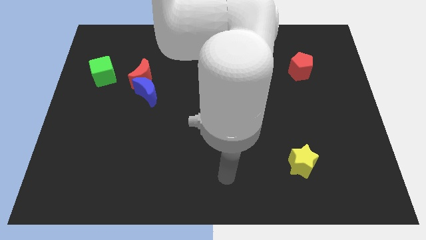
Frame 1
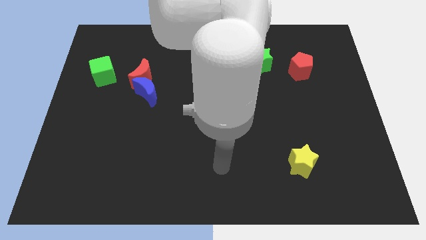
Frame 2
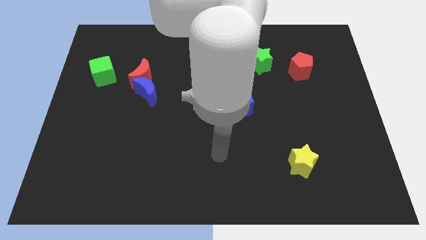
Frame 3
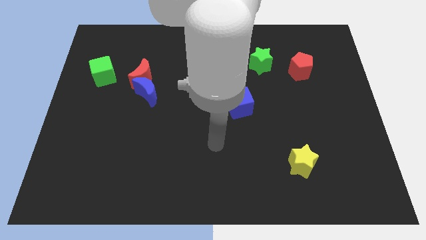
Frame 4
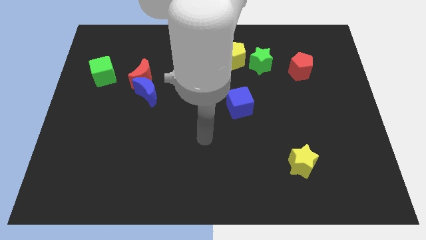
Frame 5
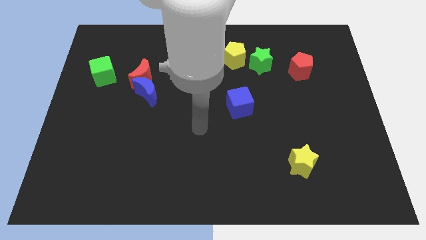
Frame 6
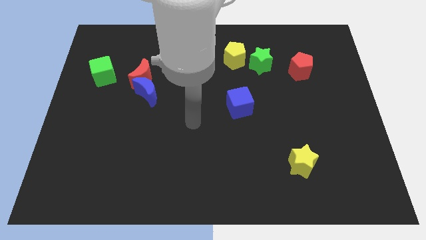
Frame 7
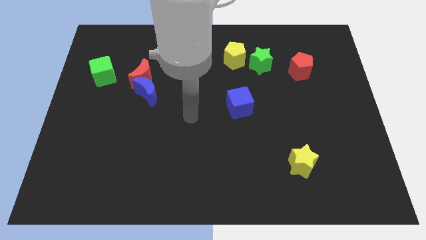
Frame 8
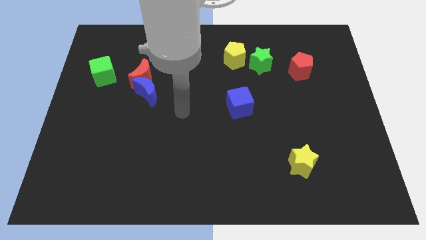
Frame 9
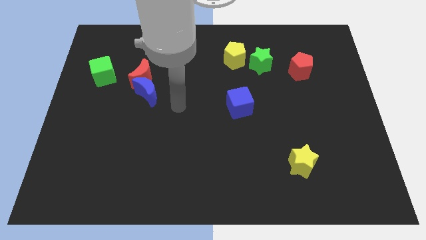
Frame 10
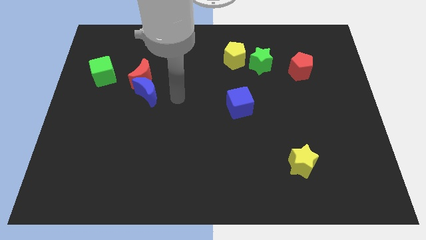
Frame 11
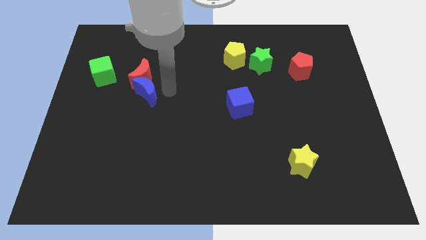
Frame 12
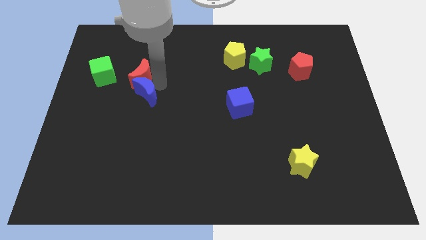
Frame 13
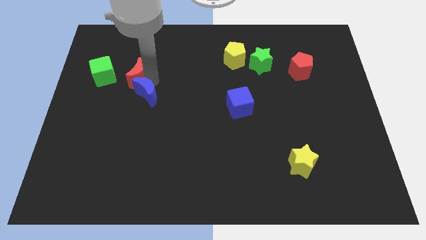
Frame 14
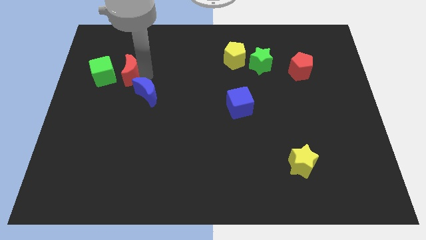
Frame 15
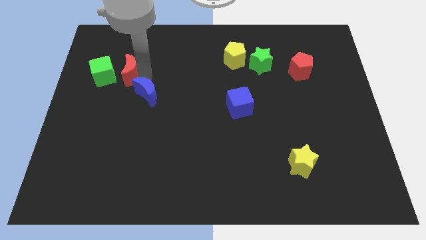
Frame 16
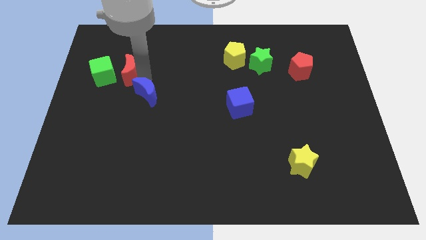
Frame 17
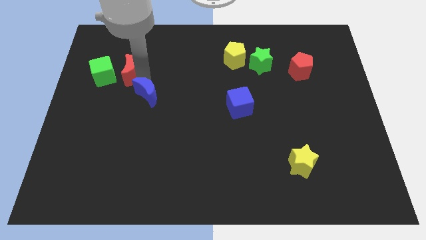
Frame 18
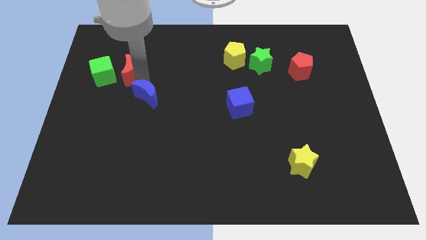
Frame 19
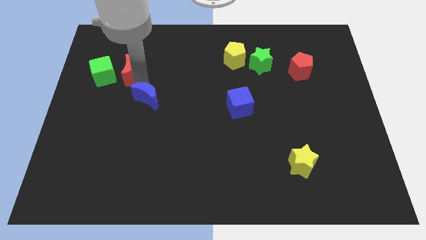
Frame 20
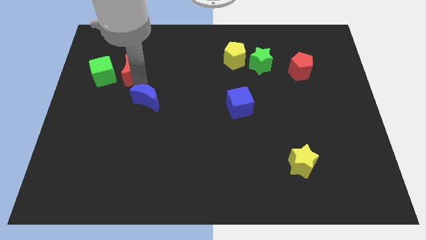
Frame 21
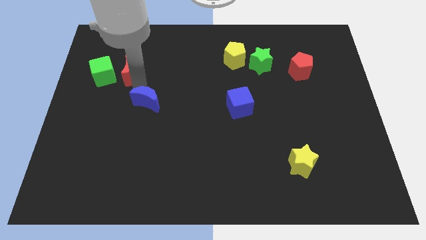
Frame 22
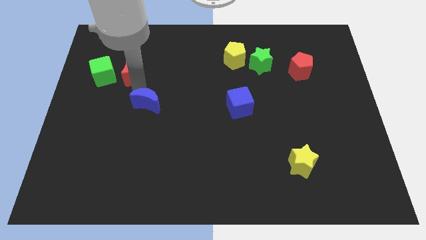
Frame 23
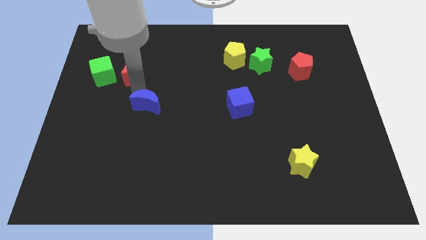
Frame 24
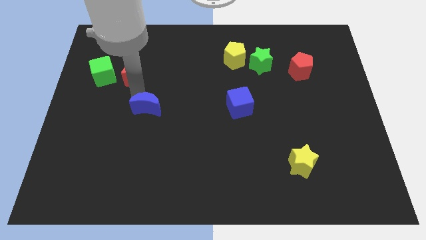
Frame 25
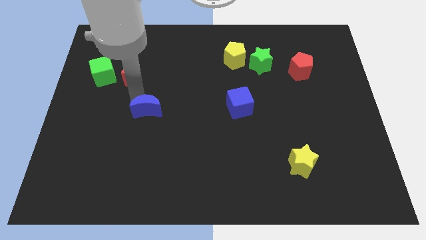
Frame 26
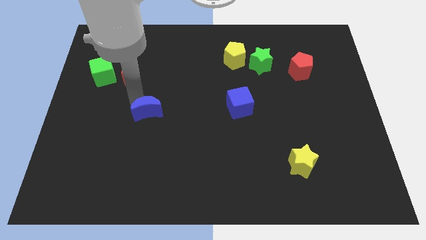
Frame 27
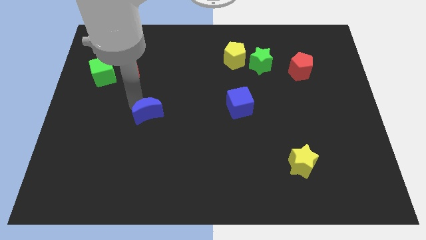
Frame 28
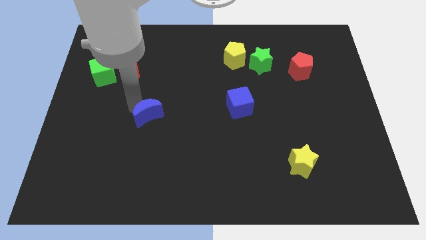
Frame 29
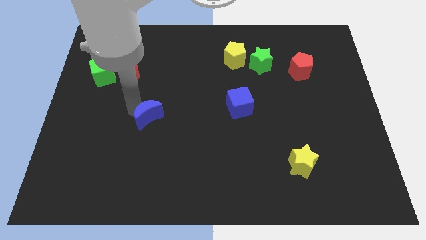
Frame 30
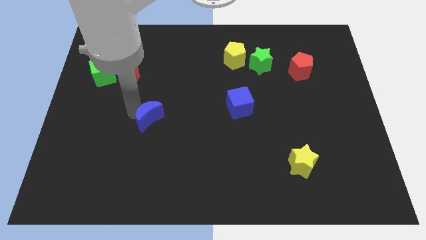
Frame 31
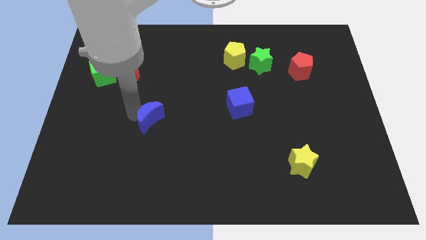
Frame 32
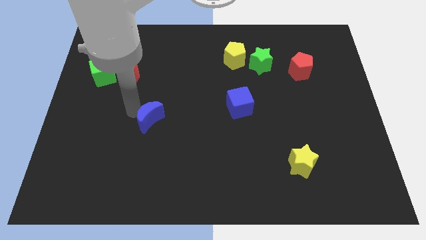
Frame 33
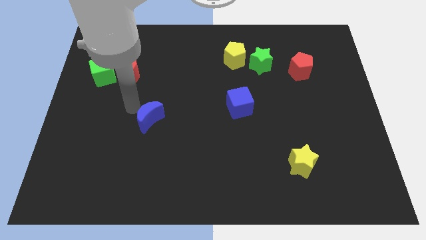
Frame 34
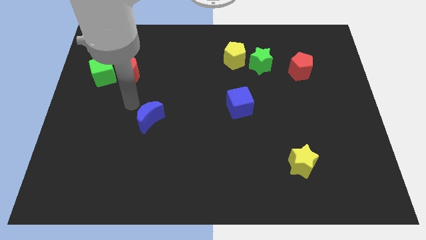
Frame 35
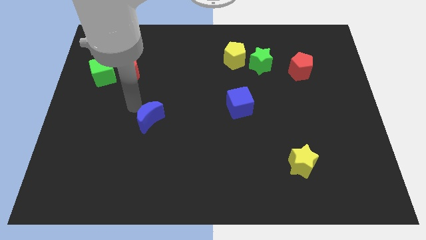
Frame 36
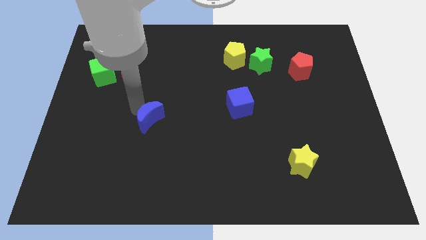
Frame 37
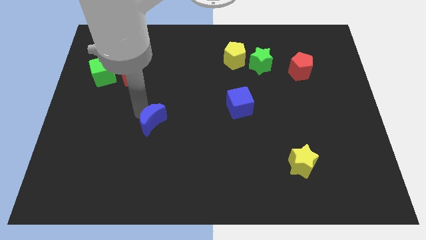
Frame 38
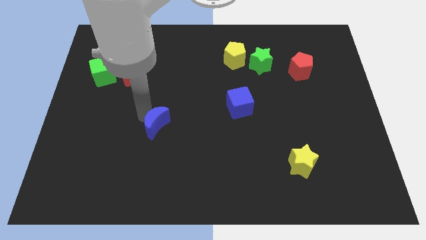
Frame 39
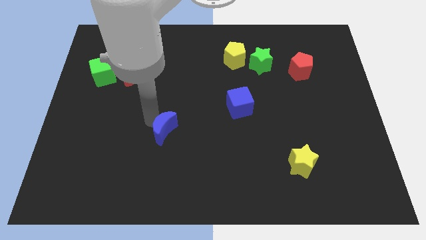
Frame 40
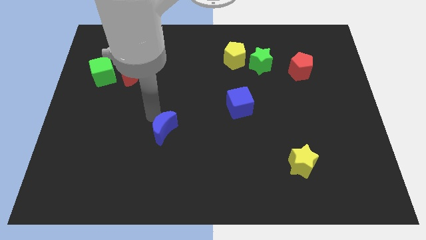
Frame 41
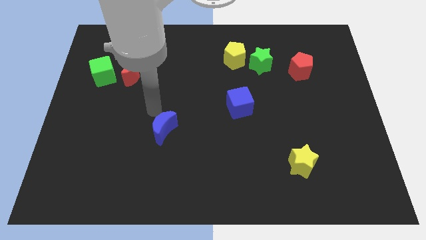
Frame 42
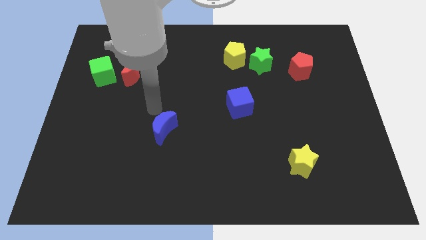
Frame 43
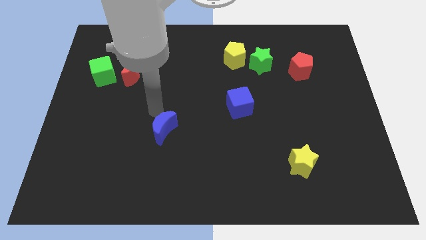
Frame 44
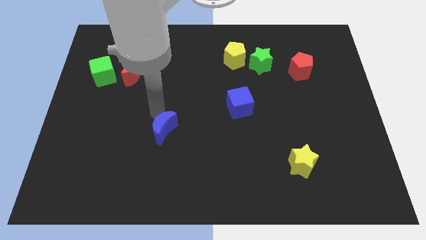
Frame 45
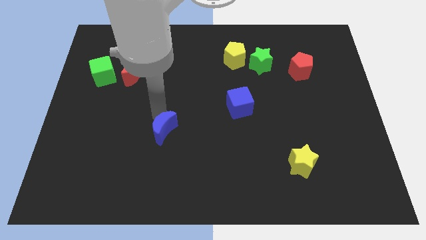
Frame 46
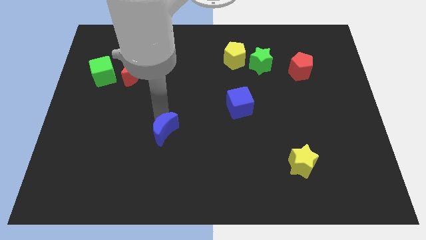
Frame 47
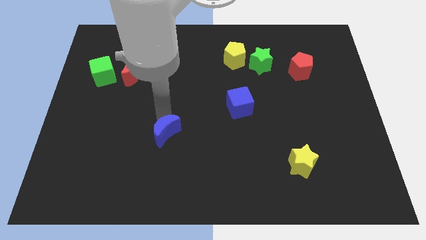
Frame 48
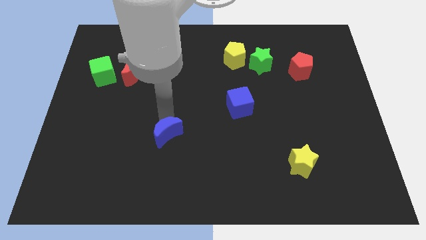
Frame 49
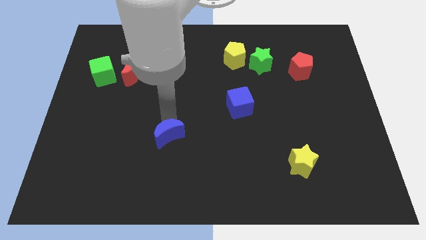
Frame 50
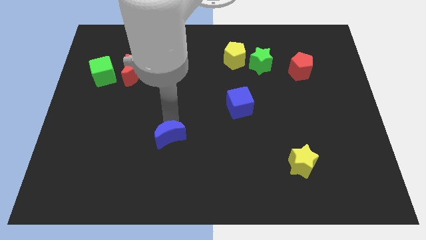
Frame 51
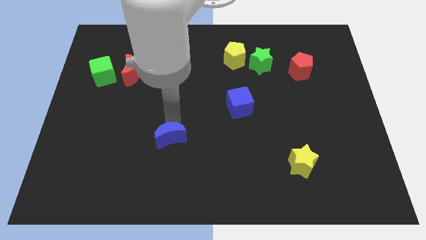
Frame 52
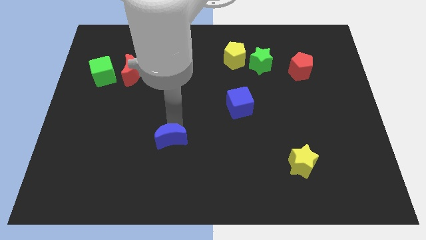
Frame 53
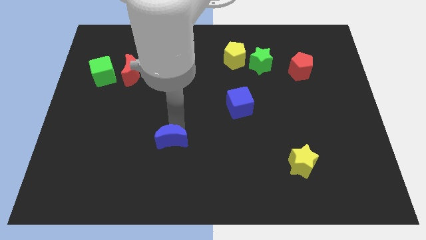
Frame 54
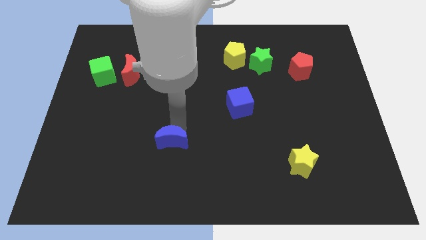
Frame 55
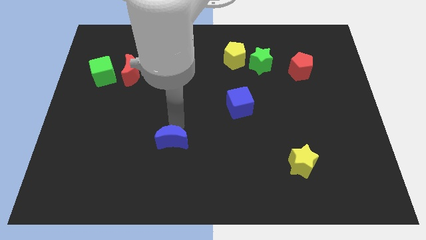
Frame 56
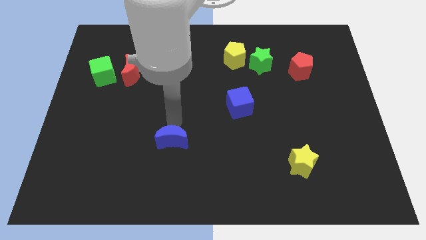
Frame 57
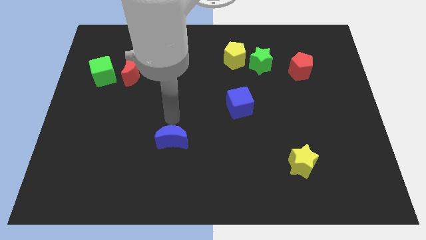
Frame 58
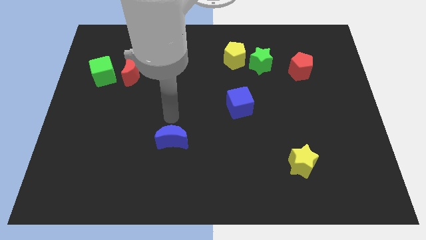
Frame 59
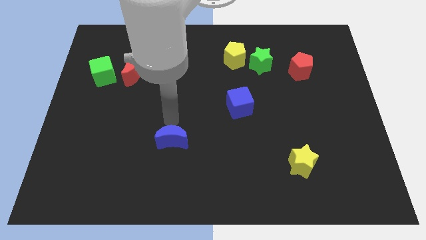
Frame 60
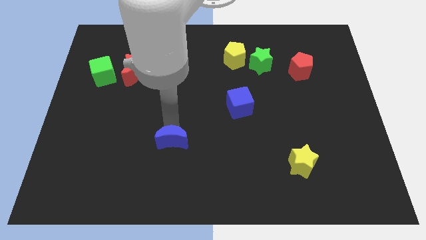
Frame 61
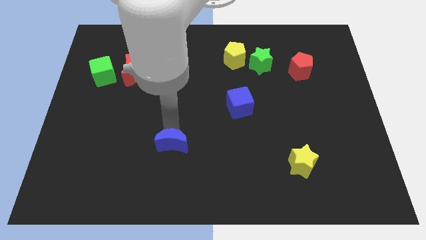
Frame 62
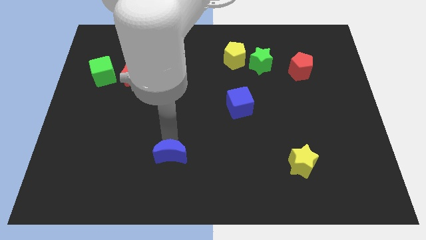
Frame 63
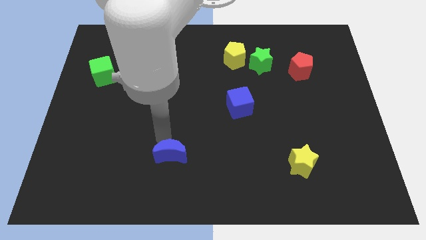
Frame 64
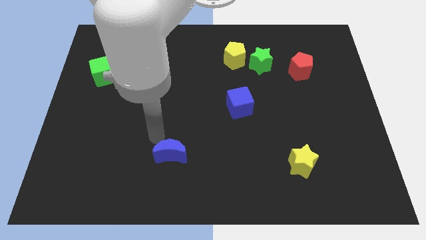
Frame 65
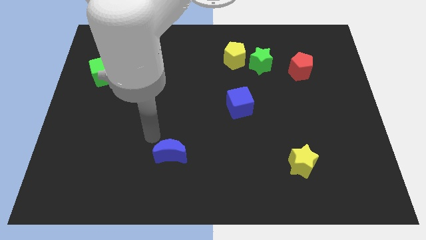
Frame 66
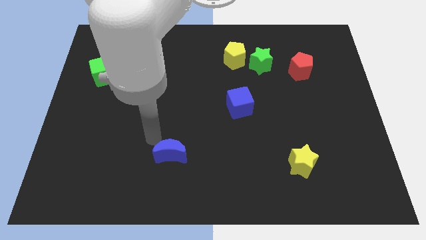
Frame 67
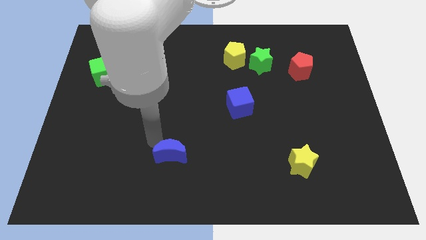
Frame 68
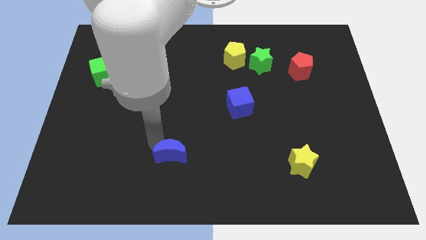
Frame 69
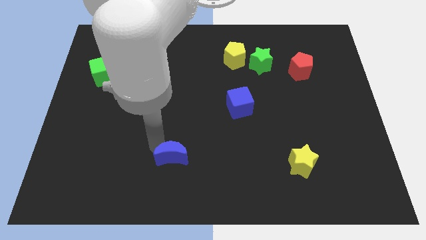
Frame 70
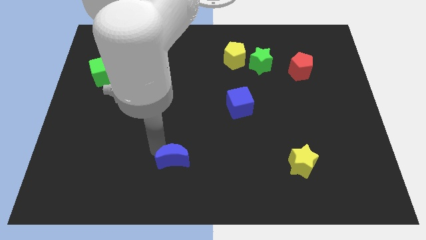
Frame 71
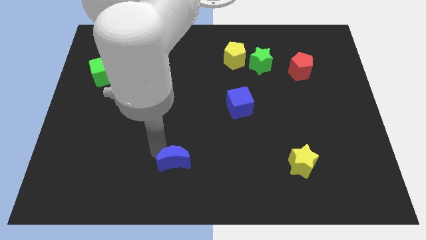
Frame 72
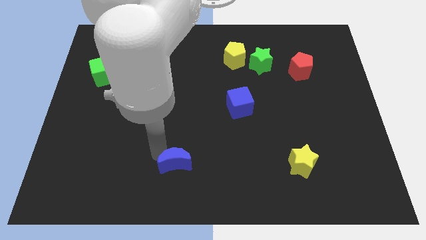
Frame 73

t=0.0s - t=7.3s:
push the blue moon to the bottom

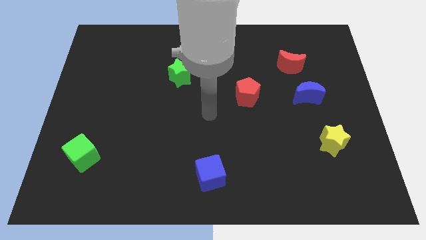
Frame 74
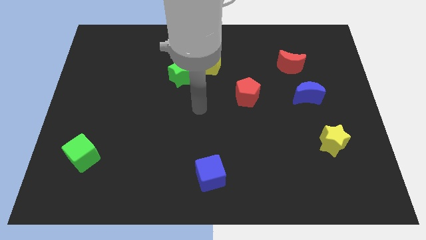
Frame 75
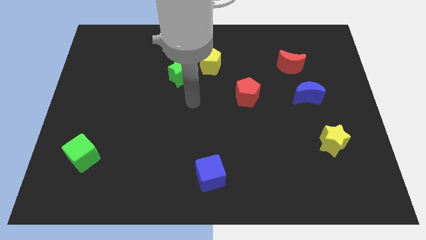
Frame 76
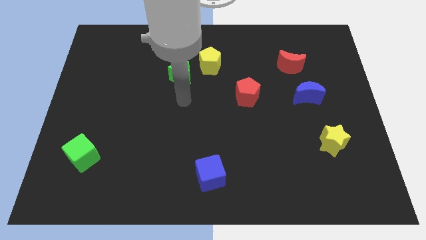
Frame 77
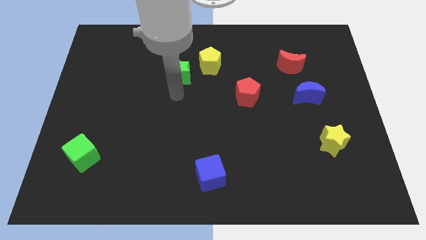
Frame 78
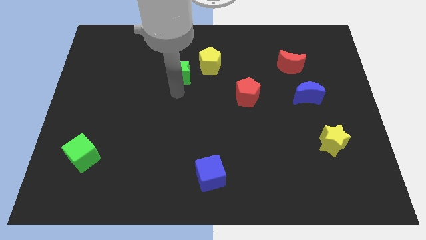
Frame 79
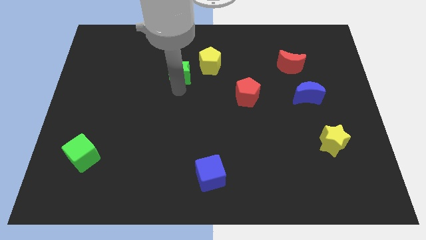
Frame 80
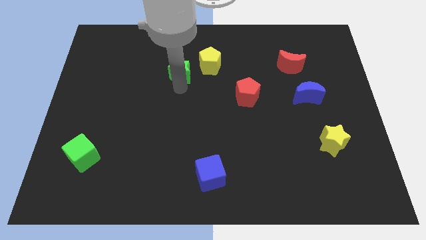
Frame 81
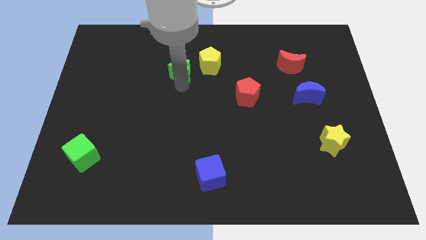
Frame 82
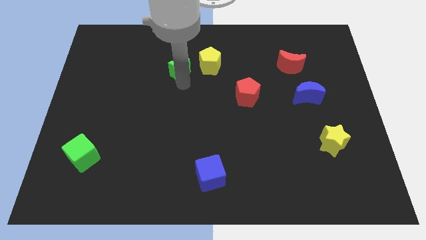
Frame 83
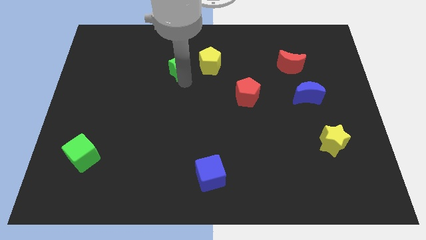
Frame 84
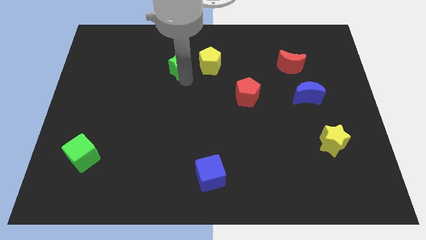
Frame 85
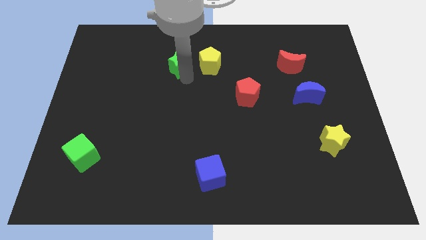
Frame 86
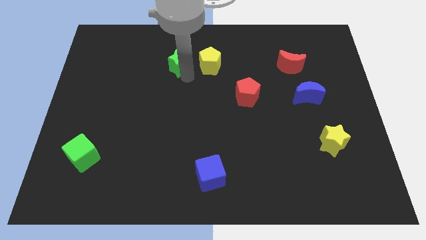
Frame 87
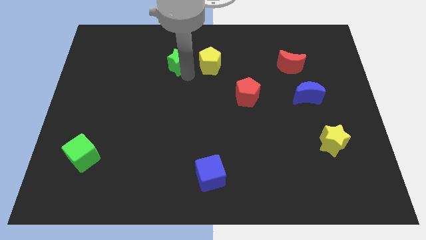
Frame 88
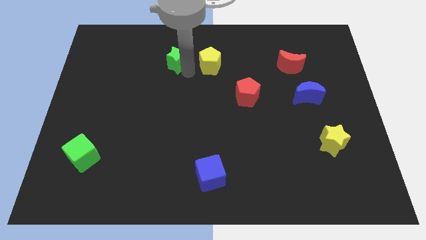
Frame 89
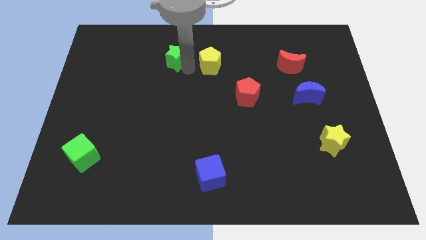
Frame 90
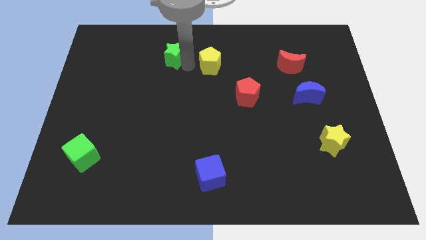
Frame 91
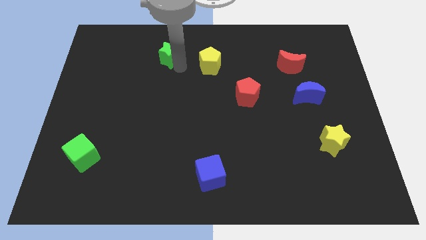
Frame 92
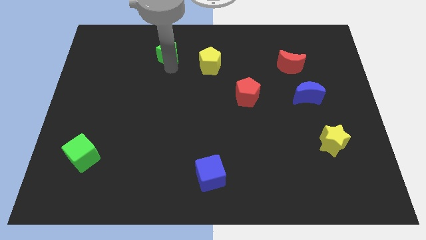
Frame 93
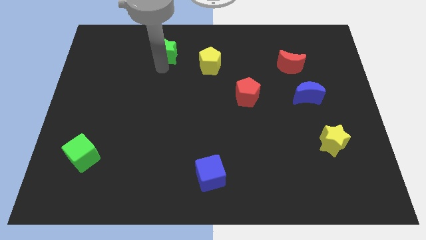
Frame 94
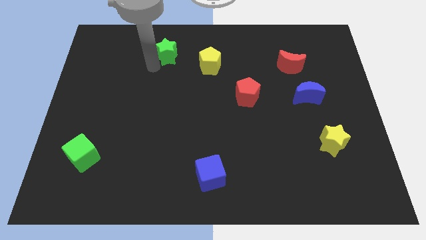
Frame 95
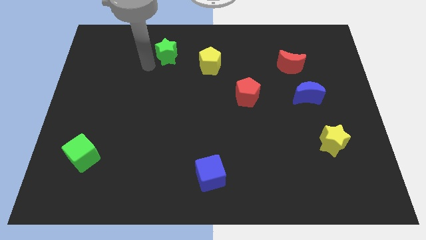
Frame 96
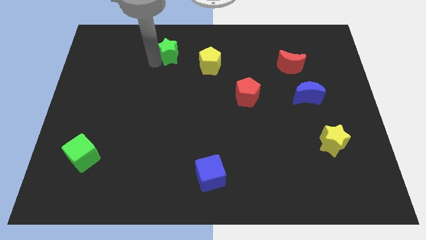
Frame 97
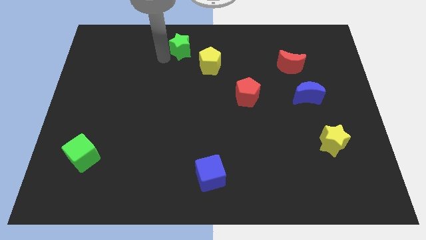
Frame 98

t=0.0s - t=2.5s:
push the green star to the top
